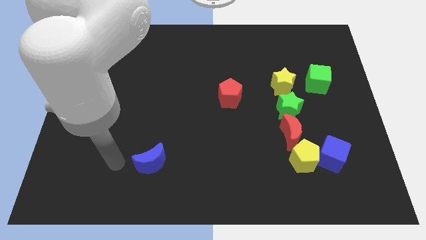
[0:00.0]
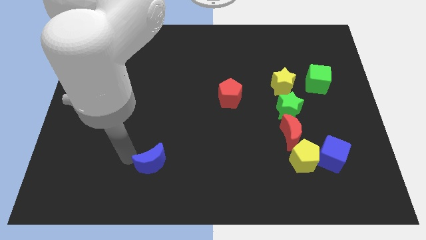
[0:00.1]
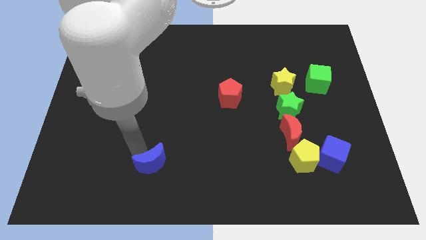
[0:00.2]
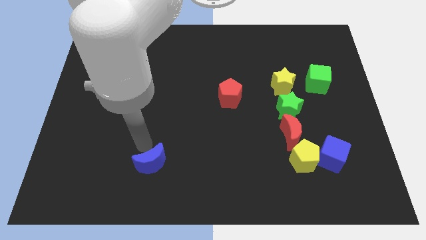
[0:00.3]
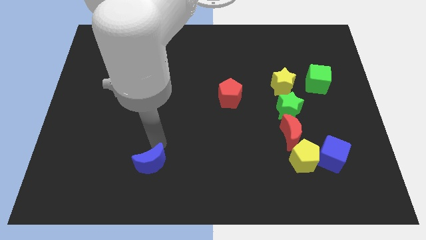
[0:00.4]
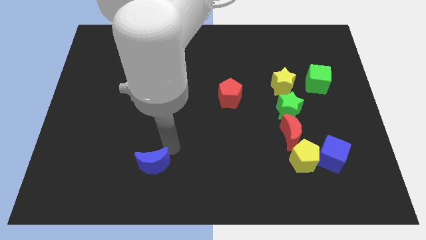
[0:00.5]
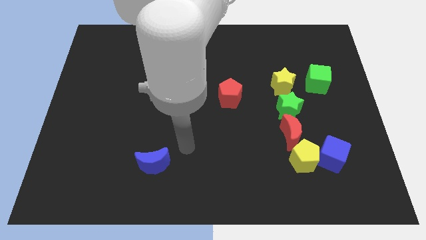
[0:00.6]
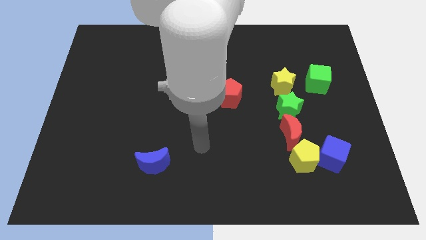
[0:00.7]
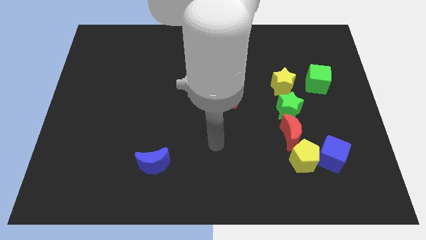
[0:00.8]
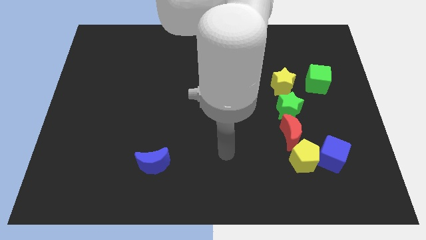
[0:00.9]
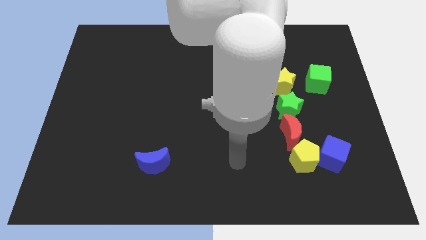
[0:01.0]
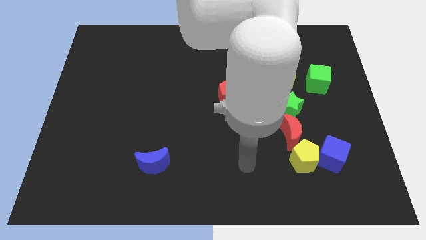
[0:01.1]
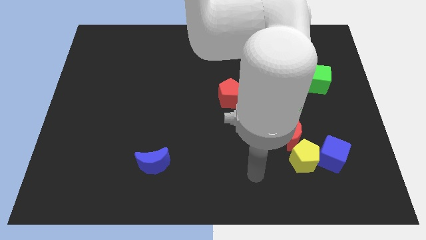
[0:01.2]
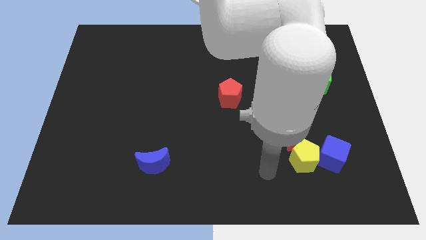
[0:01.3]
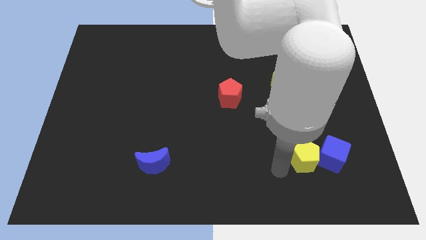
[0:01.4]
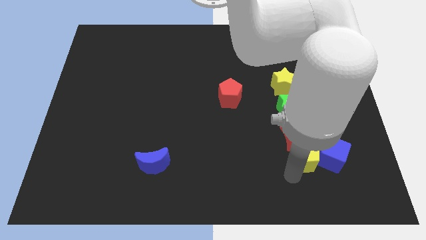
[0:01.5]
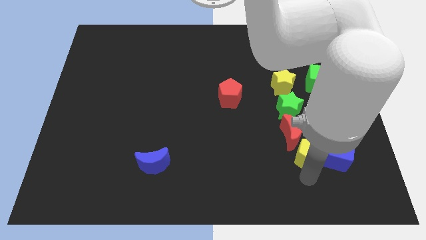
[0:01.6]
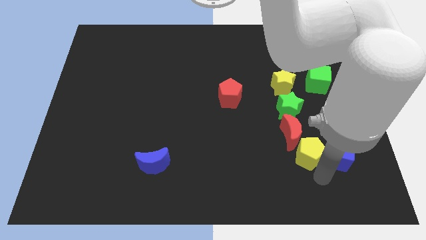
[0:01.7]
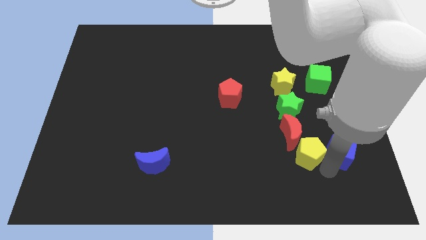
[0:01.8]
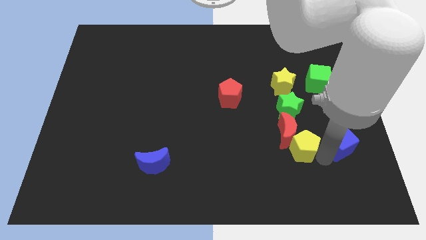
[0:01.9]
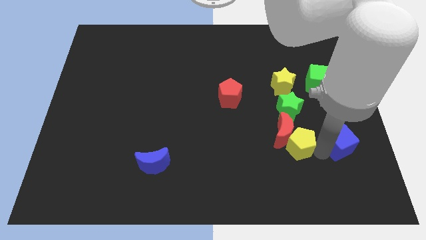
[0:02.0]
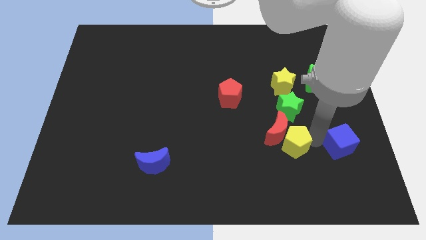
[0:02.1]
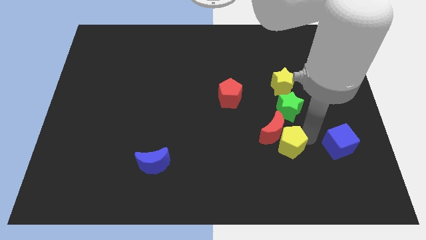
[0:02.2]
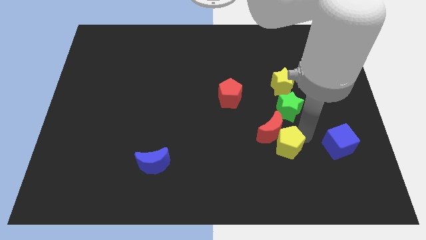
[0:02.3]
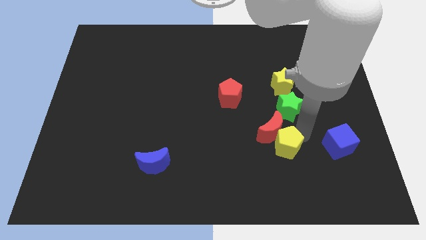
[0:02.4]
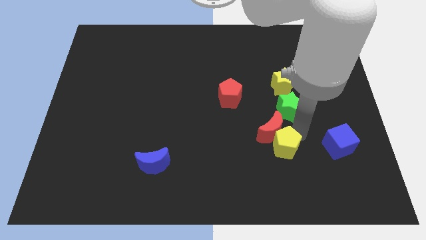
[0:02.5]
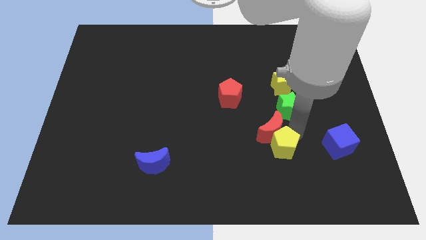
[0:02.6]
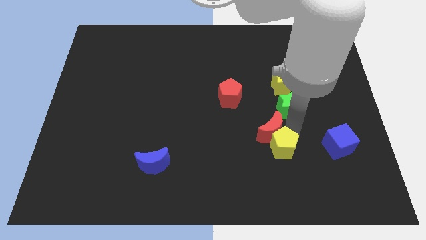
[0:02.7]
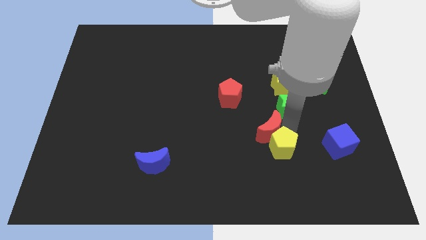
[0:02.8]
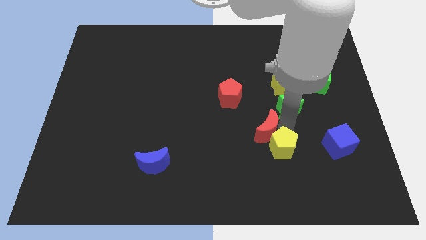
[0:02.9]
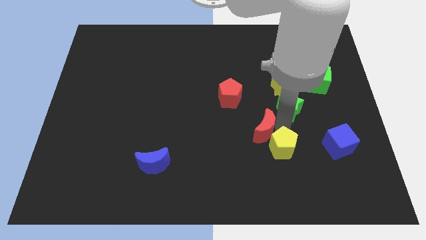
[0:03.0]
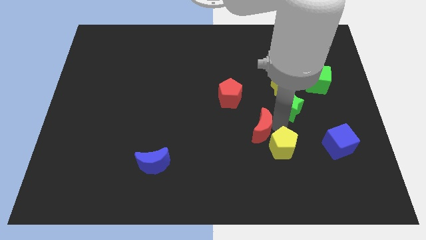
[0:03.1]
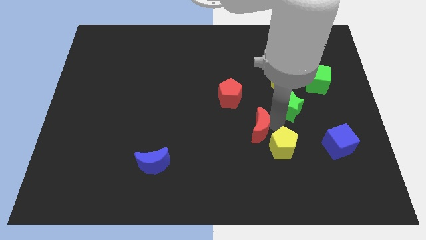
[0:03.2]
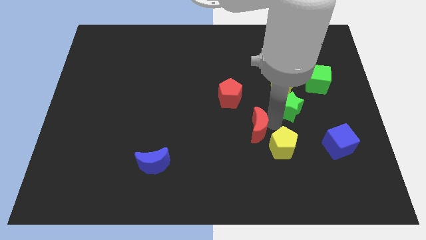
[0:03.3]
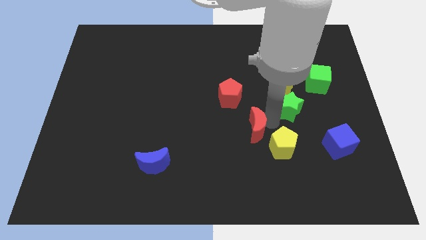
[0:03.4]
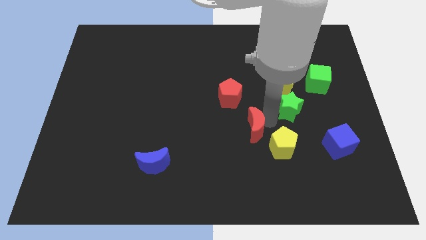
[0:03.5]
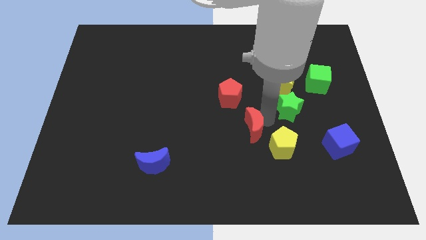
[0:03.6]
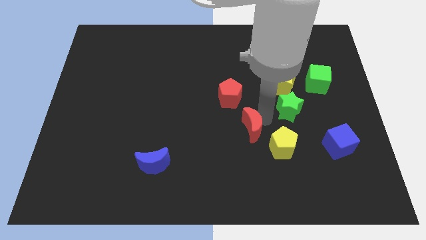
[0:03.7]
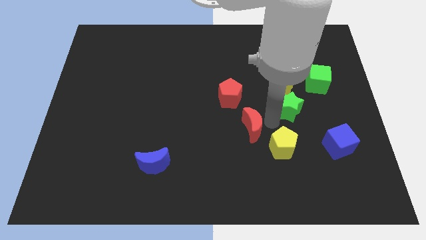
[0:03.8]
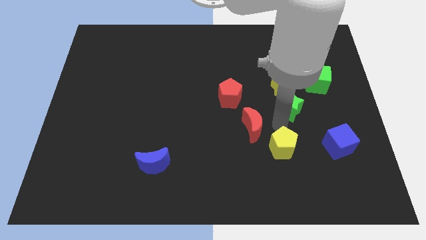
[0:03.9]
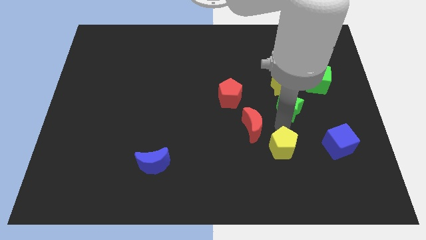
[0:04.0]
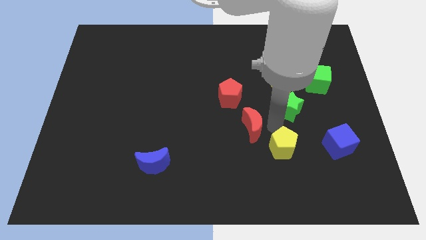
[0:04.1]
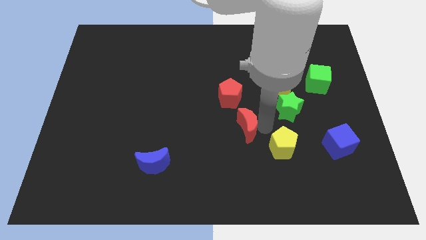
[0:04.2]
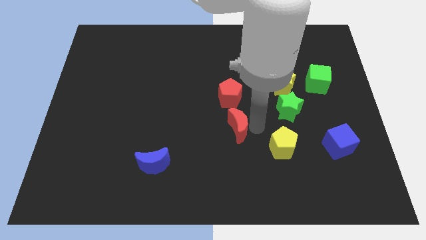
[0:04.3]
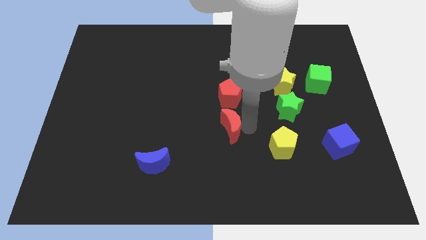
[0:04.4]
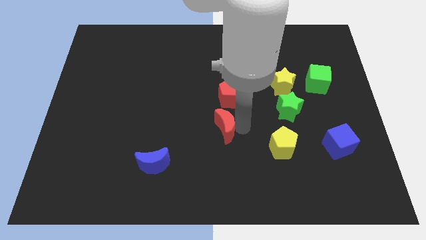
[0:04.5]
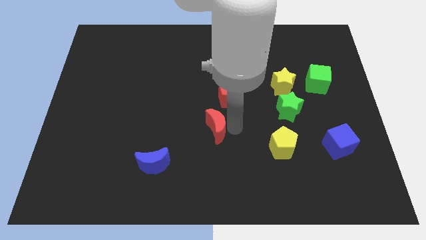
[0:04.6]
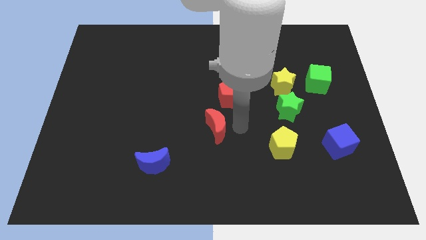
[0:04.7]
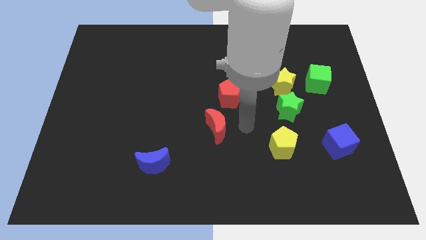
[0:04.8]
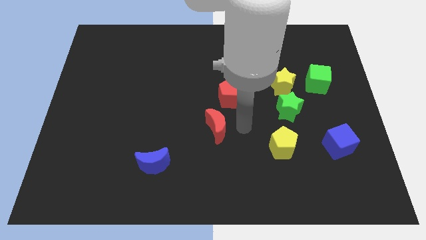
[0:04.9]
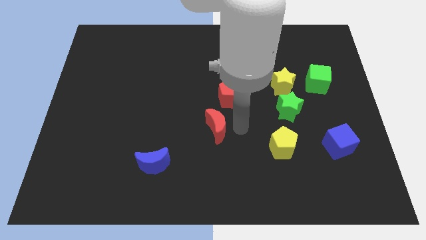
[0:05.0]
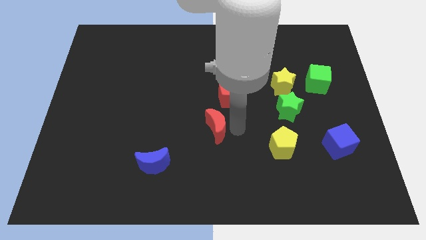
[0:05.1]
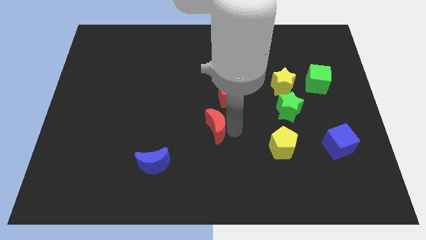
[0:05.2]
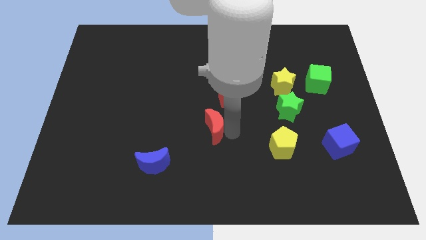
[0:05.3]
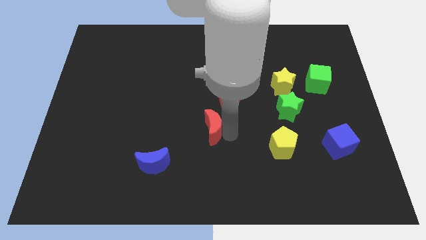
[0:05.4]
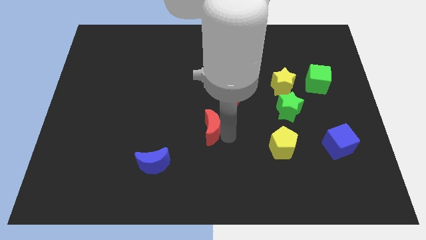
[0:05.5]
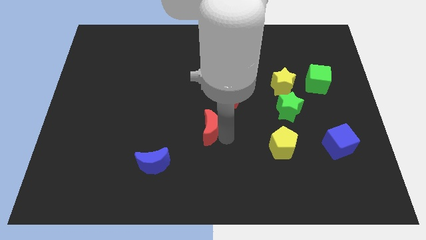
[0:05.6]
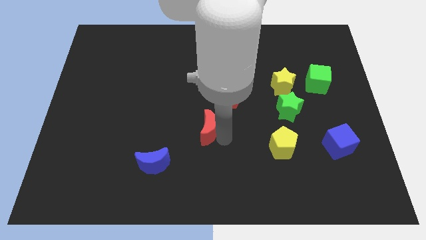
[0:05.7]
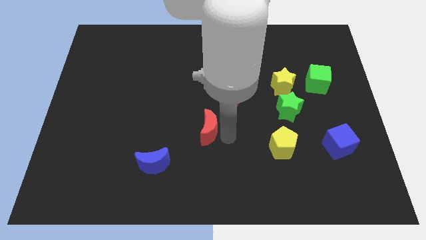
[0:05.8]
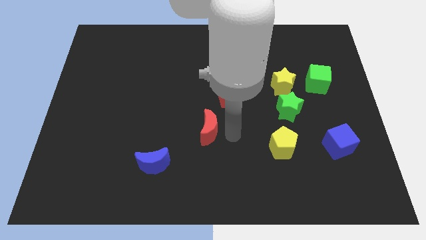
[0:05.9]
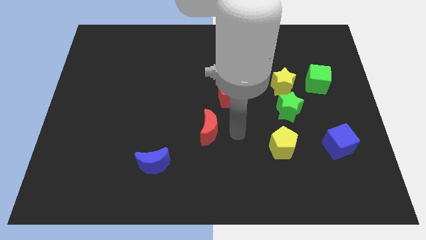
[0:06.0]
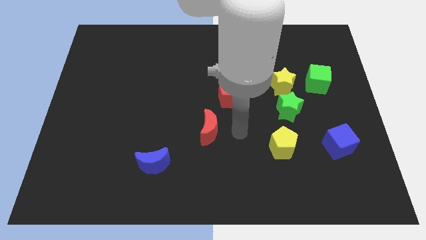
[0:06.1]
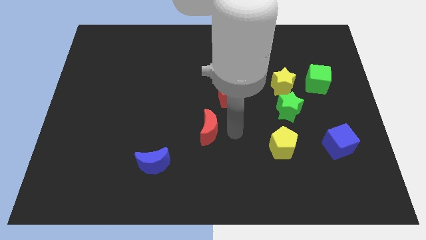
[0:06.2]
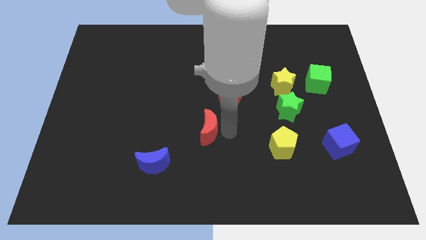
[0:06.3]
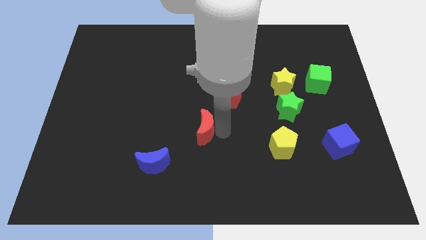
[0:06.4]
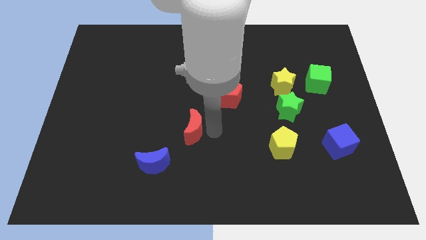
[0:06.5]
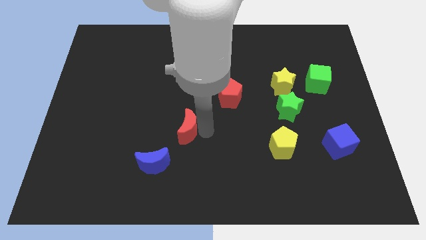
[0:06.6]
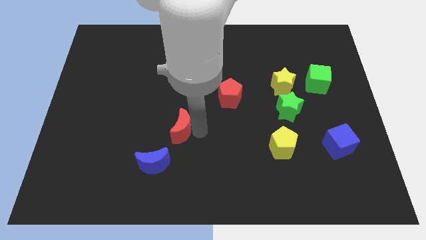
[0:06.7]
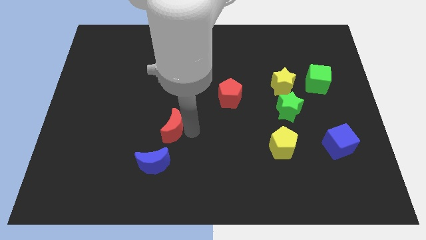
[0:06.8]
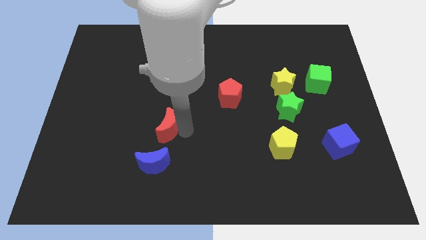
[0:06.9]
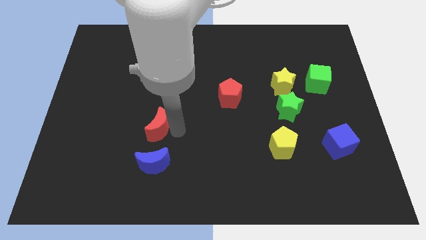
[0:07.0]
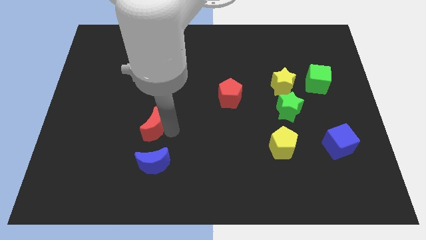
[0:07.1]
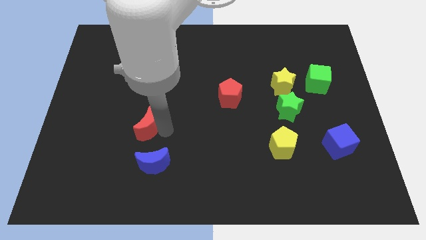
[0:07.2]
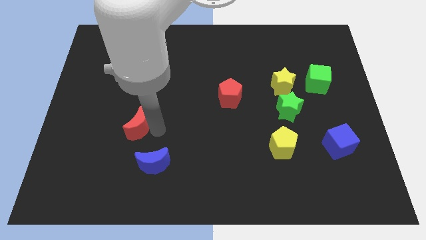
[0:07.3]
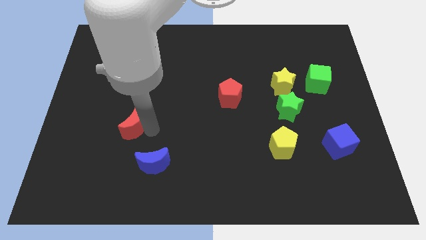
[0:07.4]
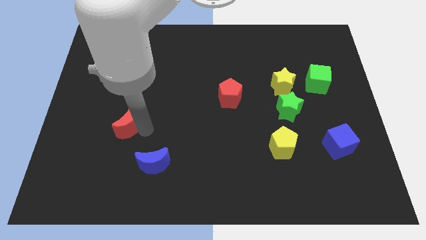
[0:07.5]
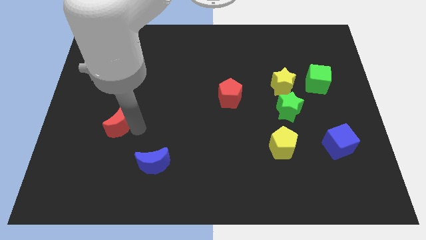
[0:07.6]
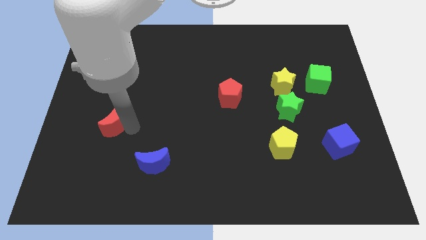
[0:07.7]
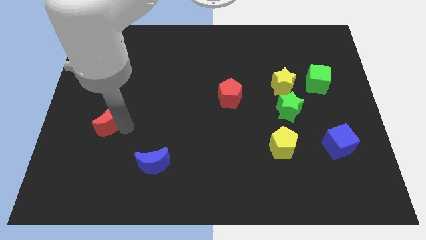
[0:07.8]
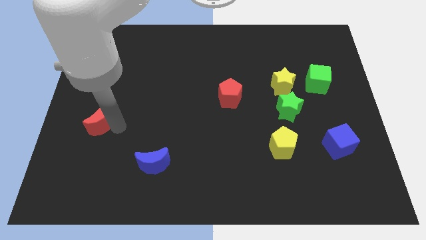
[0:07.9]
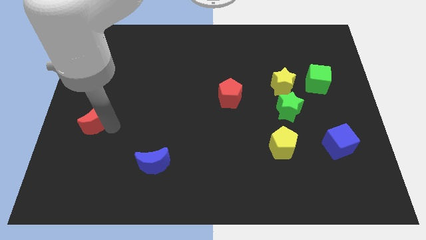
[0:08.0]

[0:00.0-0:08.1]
put the red moon to the left side
